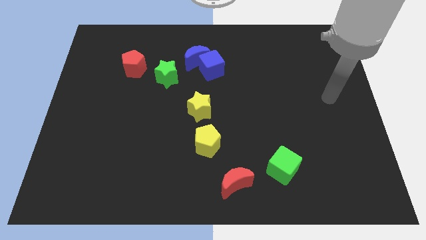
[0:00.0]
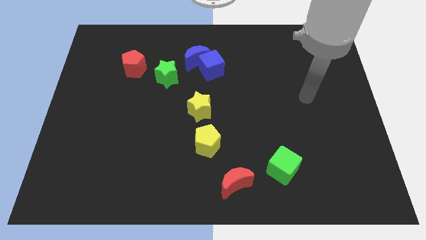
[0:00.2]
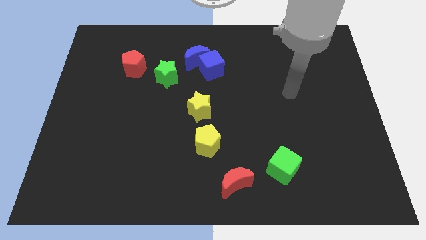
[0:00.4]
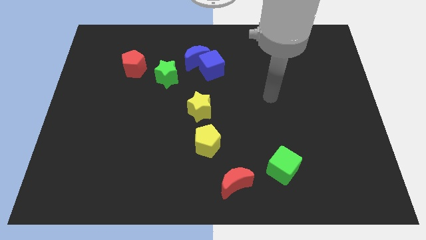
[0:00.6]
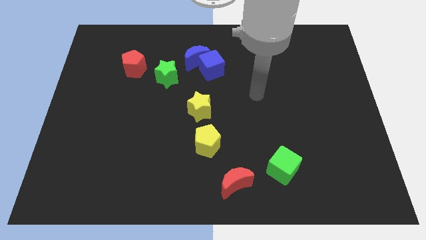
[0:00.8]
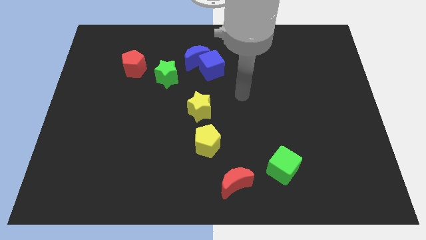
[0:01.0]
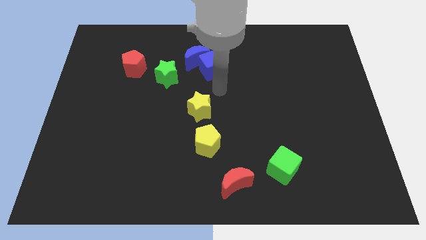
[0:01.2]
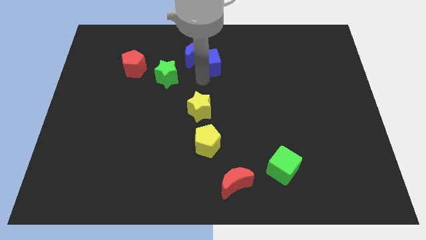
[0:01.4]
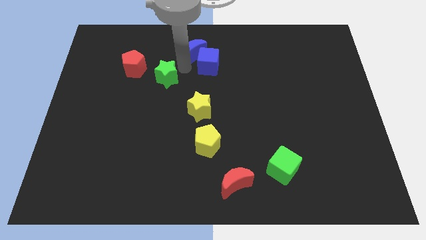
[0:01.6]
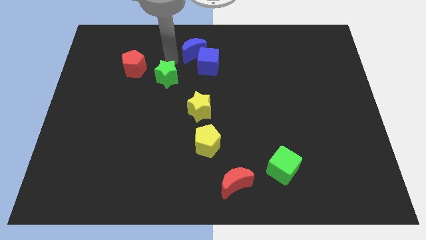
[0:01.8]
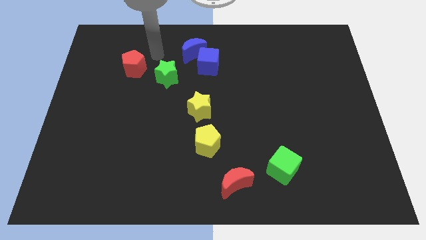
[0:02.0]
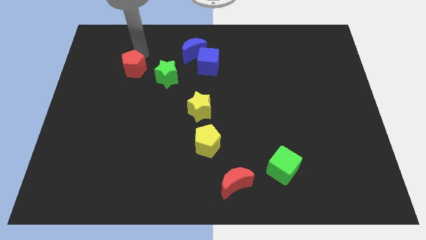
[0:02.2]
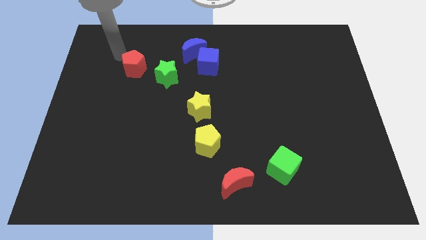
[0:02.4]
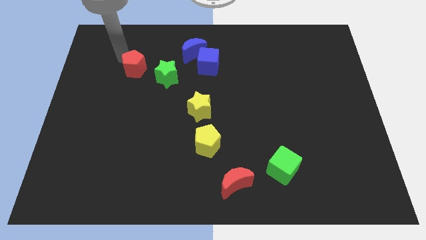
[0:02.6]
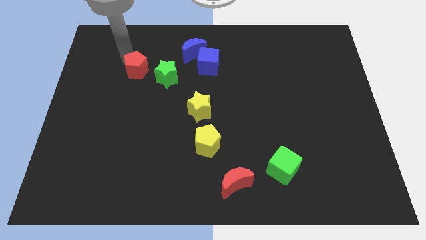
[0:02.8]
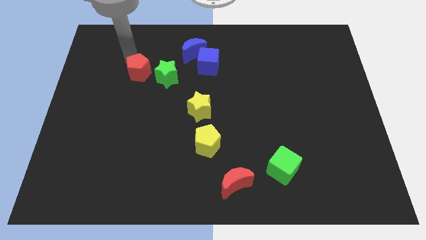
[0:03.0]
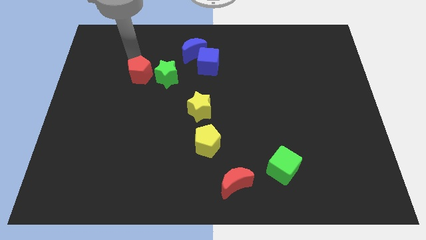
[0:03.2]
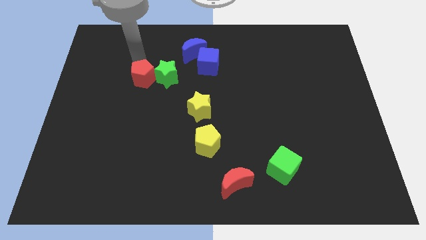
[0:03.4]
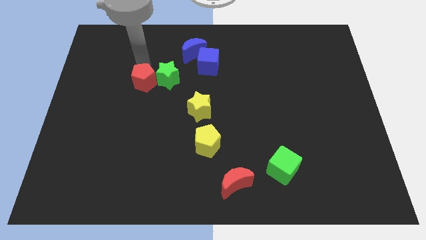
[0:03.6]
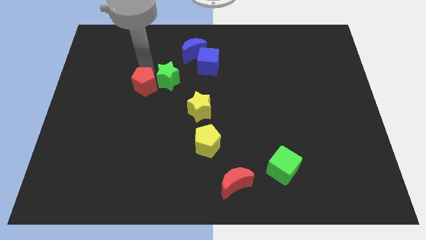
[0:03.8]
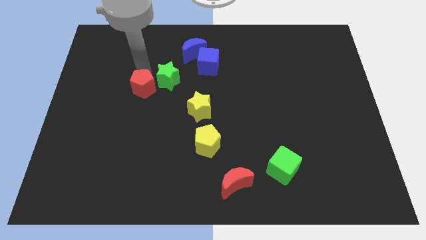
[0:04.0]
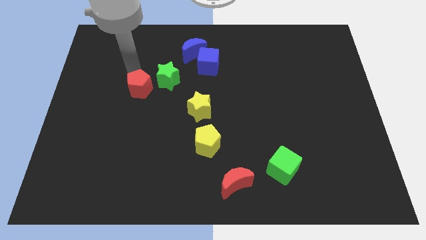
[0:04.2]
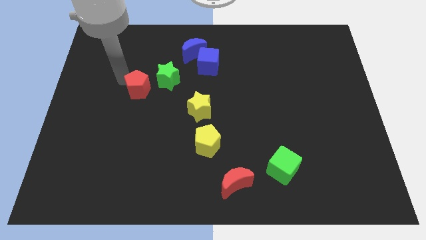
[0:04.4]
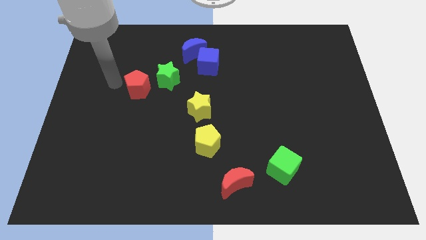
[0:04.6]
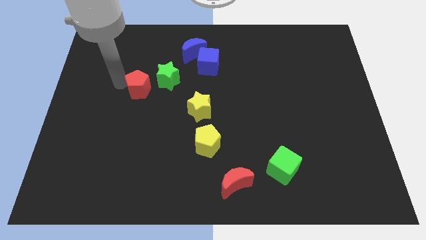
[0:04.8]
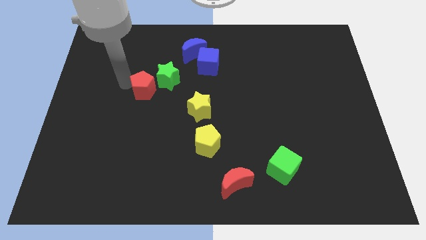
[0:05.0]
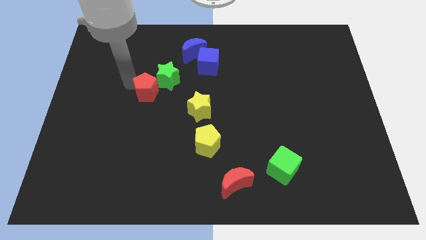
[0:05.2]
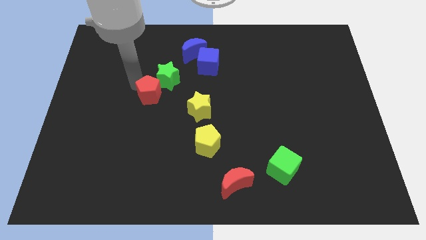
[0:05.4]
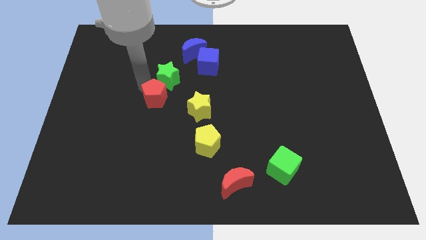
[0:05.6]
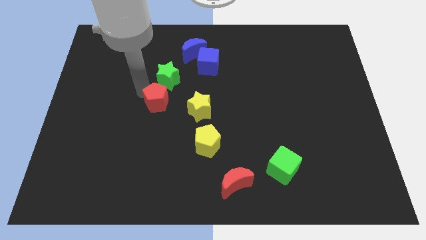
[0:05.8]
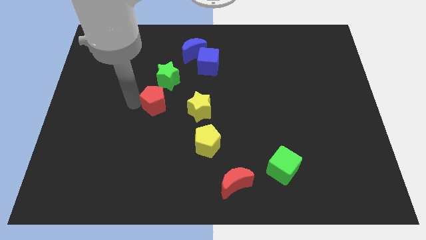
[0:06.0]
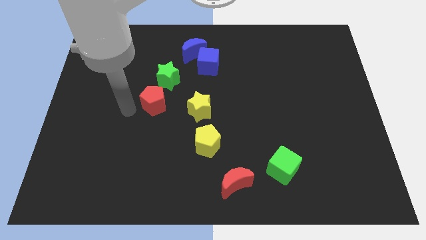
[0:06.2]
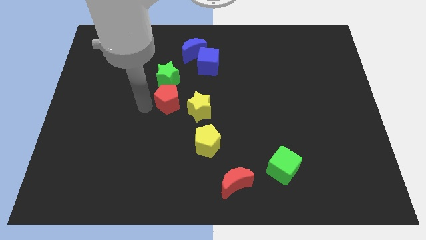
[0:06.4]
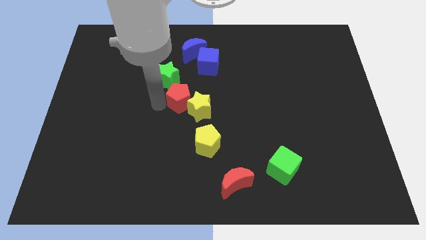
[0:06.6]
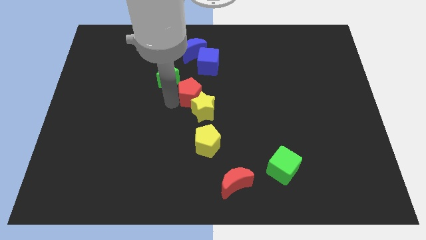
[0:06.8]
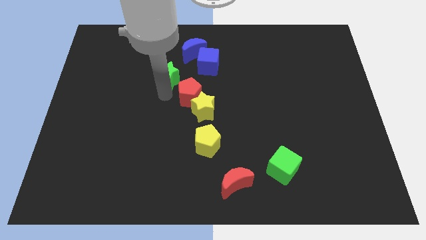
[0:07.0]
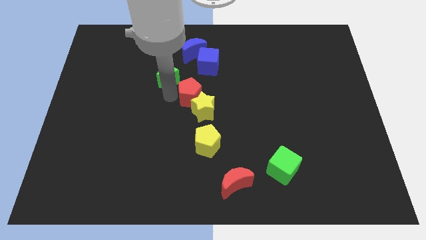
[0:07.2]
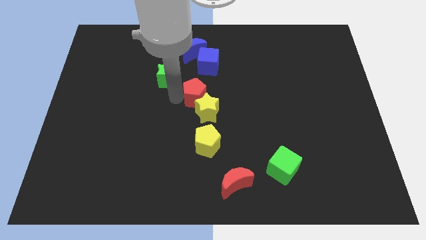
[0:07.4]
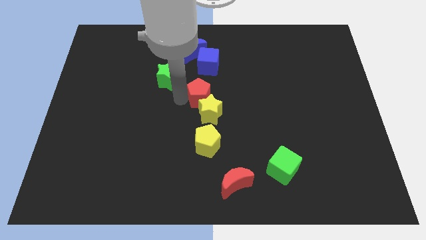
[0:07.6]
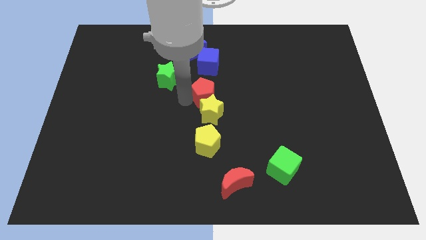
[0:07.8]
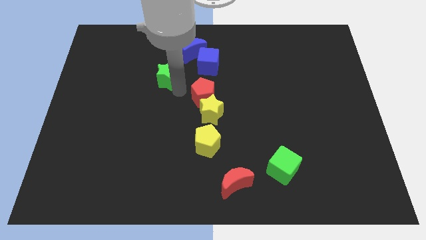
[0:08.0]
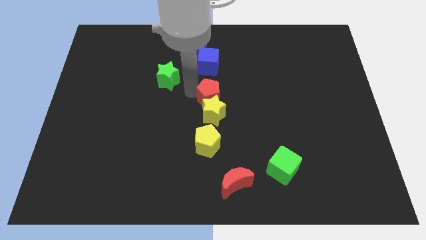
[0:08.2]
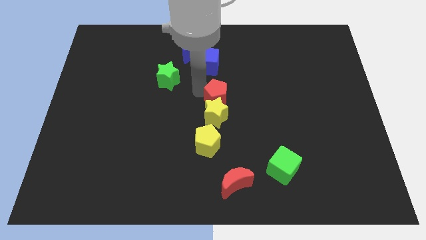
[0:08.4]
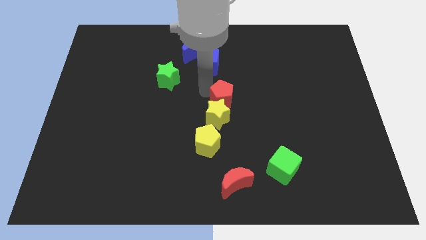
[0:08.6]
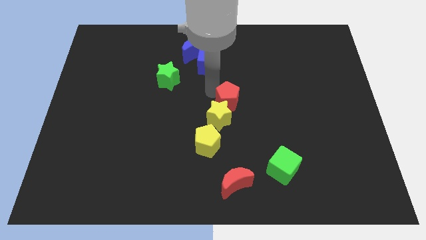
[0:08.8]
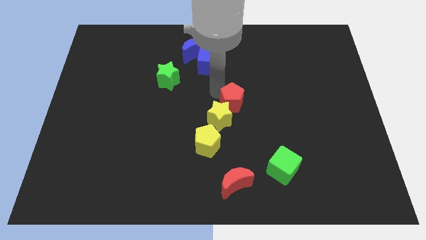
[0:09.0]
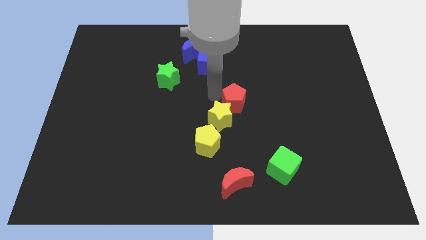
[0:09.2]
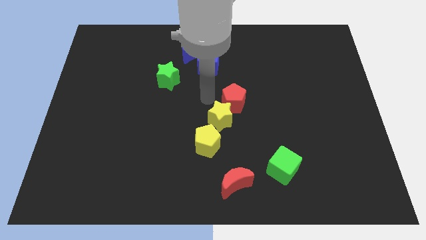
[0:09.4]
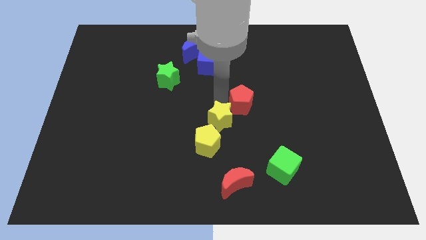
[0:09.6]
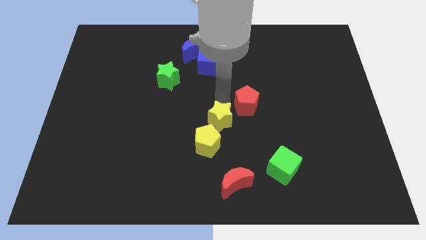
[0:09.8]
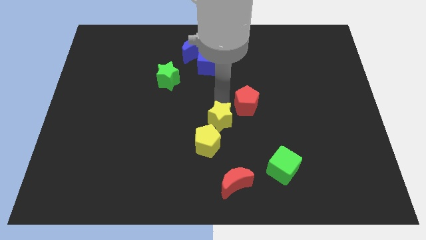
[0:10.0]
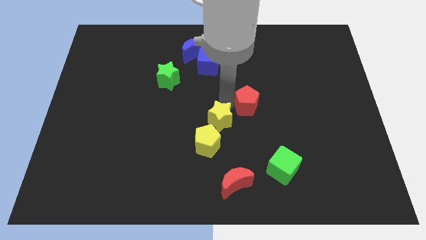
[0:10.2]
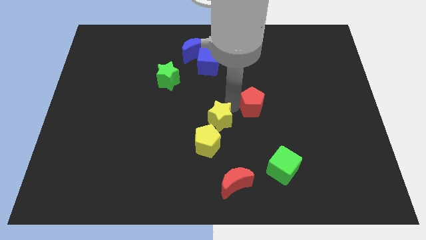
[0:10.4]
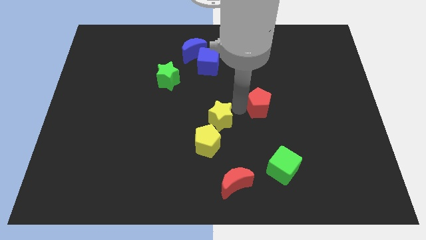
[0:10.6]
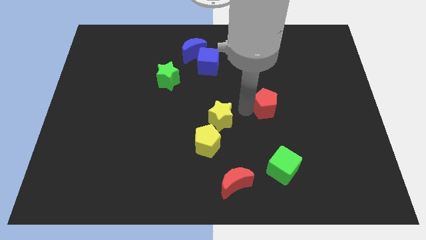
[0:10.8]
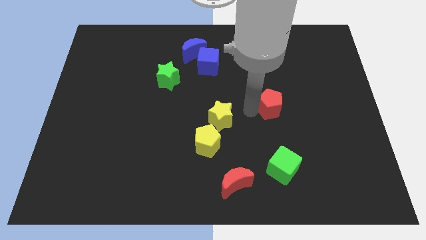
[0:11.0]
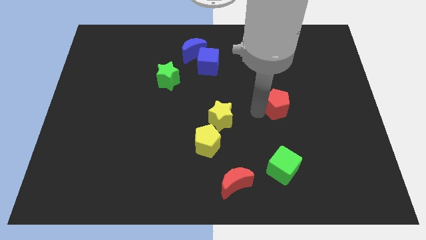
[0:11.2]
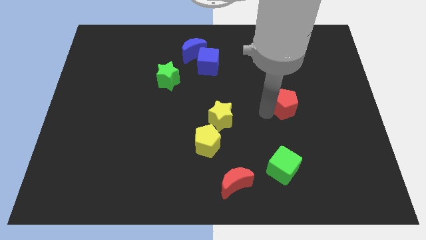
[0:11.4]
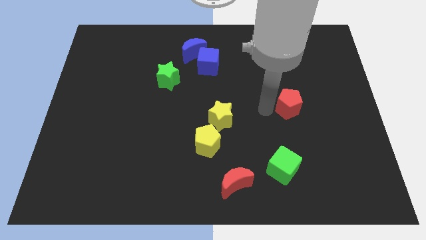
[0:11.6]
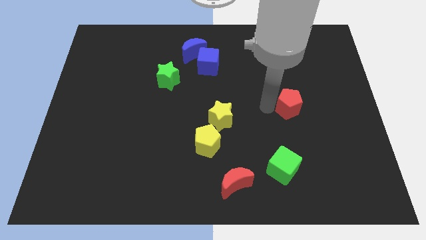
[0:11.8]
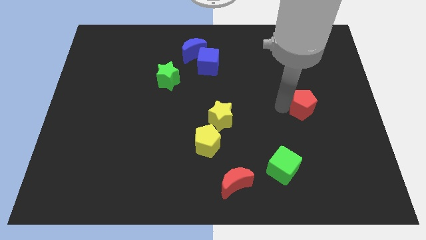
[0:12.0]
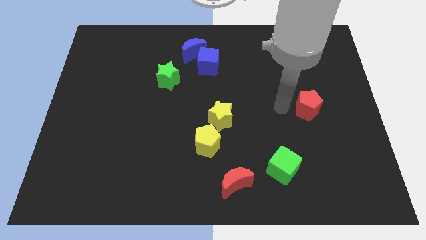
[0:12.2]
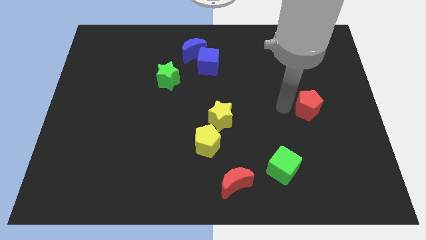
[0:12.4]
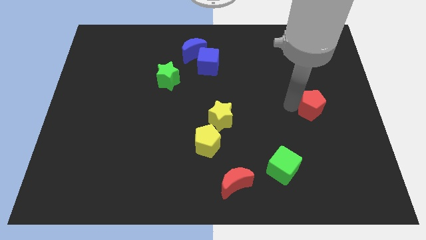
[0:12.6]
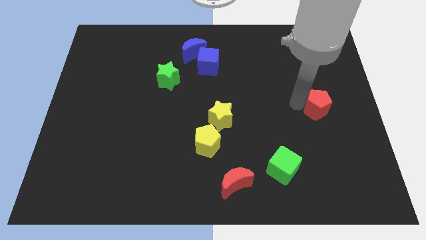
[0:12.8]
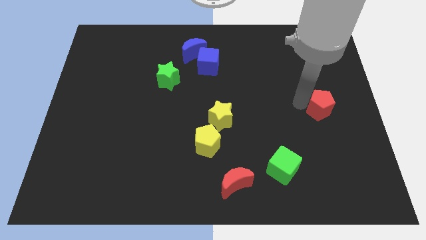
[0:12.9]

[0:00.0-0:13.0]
move the red pentagon to the center right
